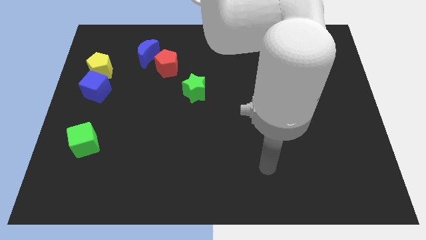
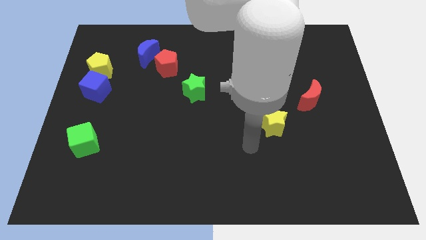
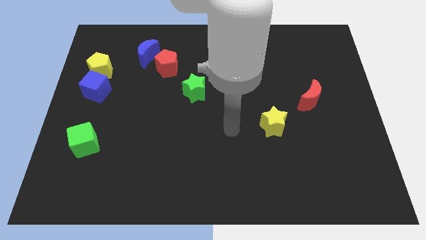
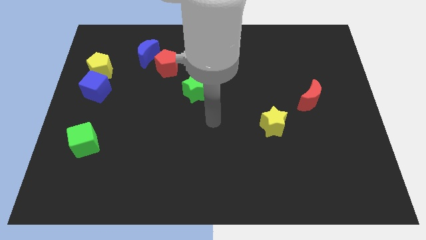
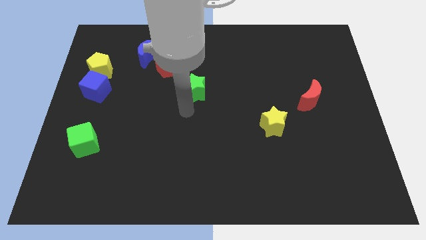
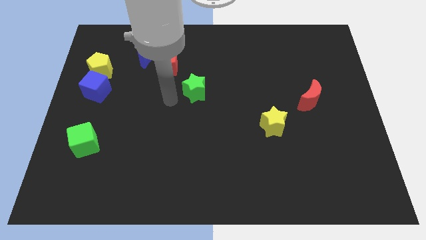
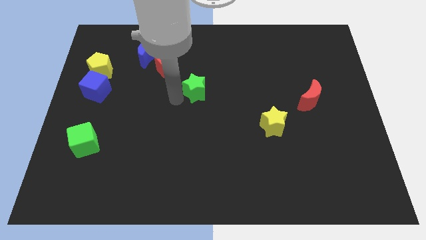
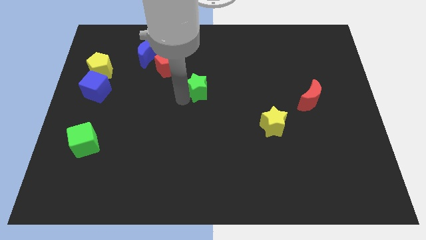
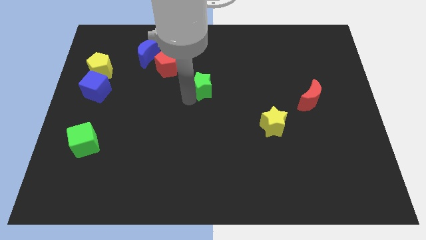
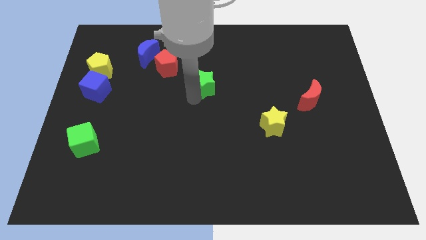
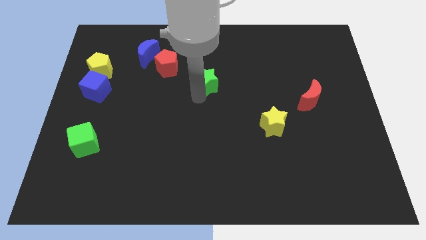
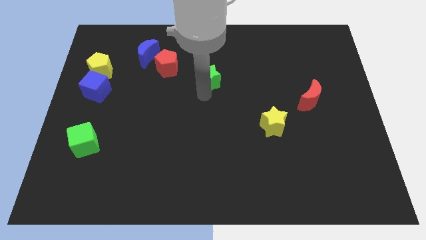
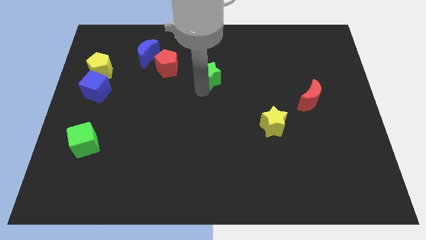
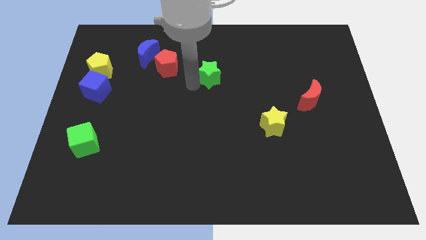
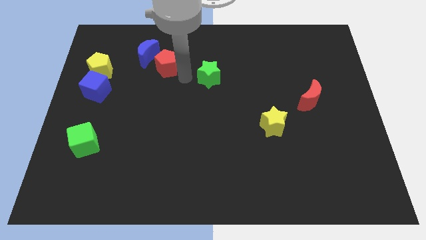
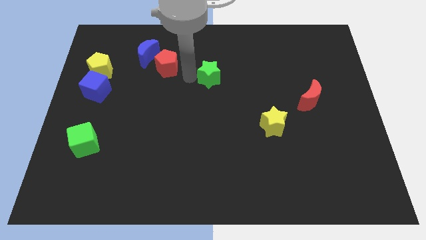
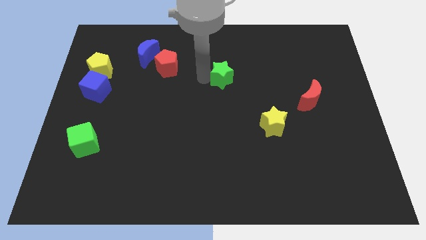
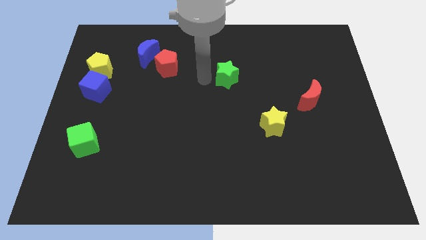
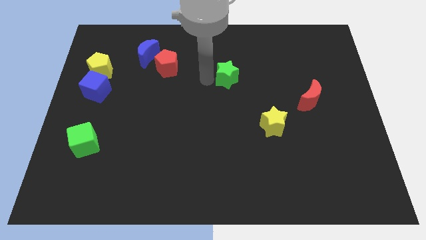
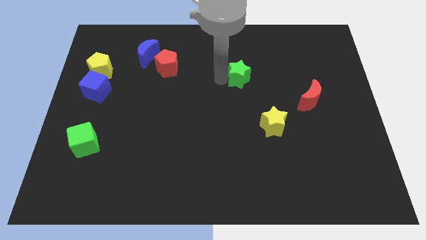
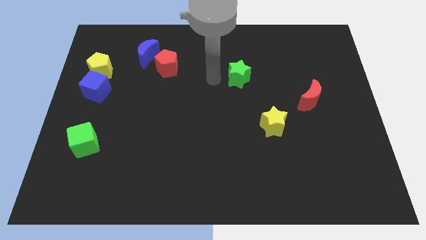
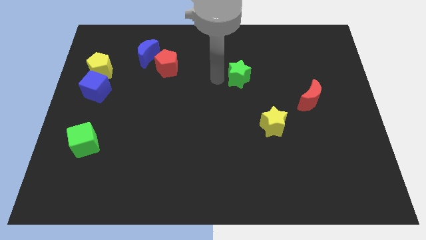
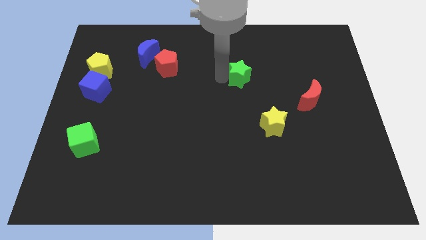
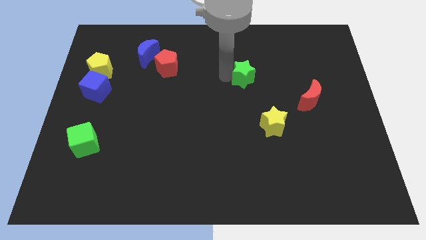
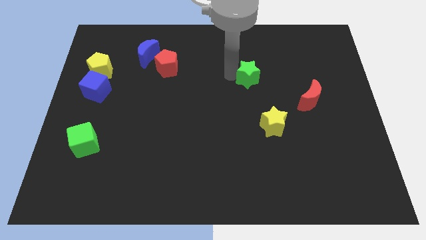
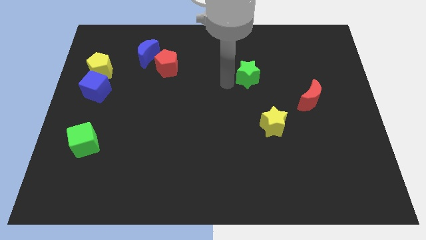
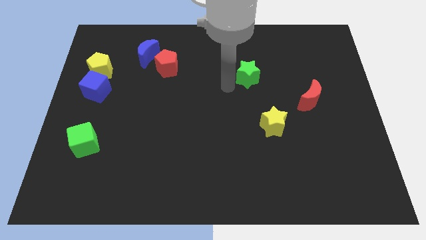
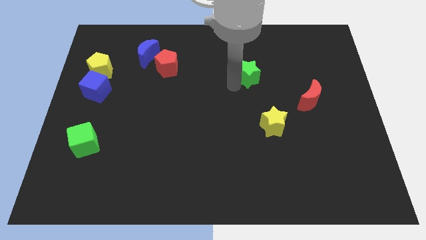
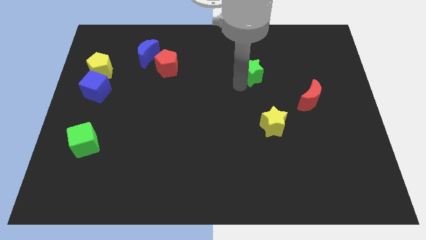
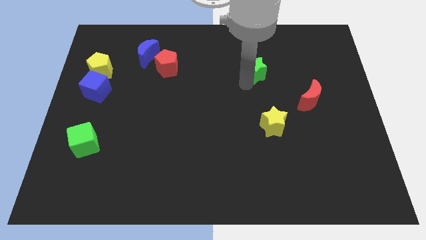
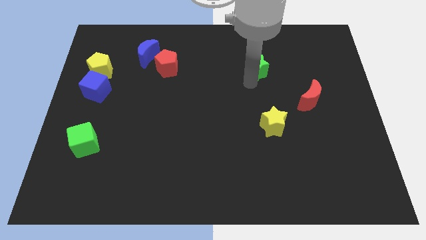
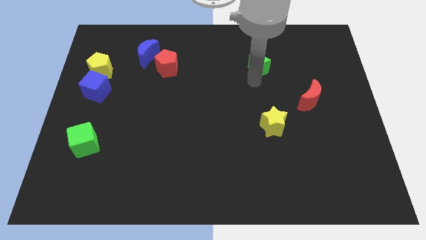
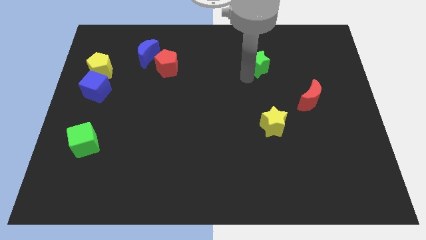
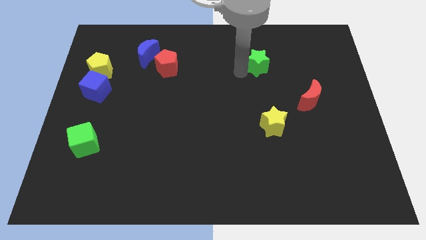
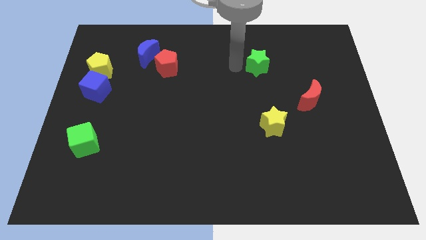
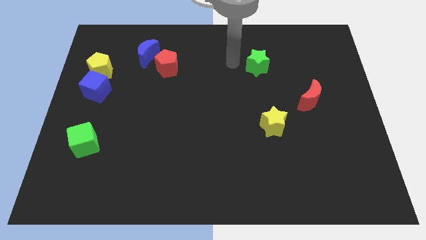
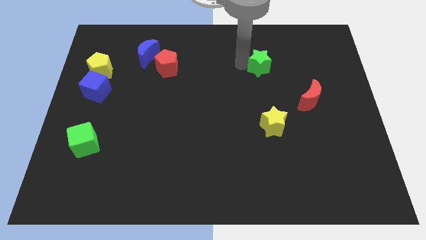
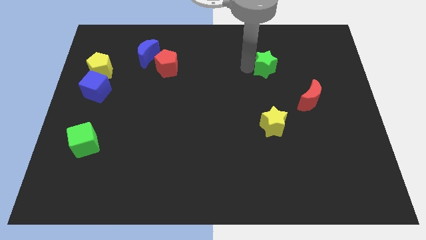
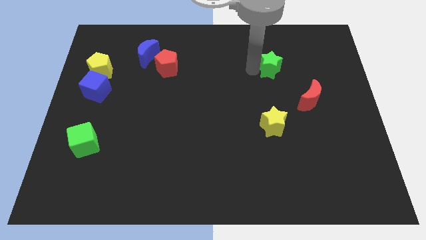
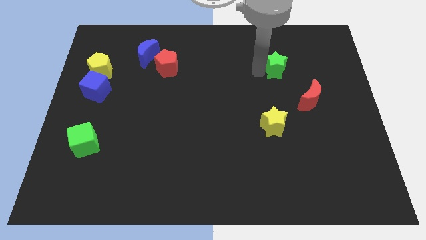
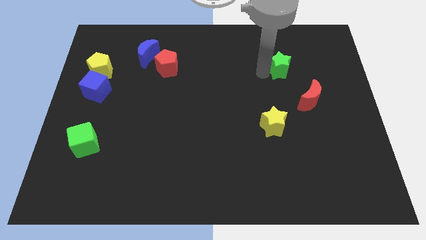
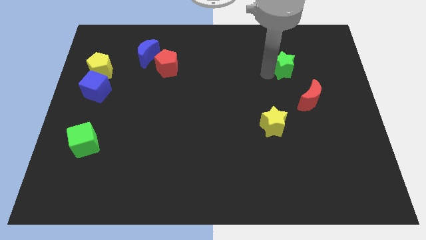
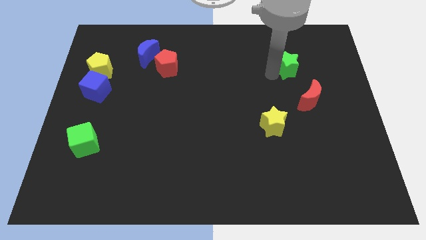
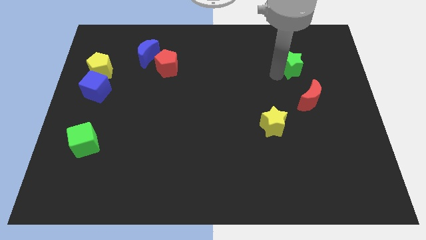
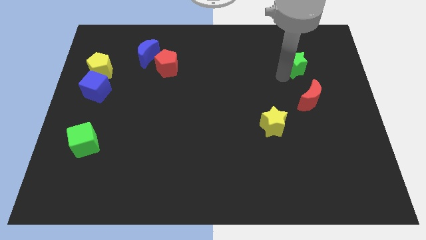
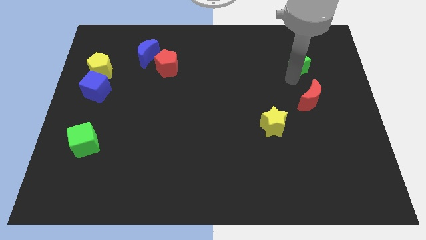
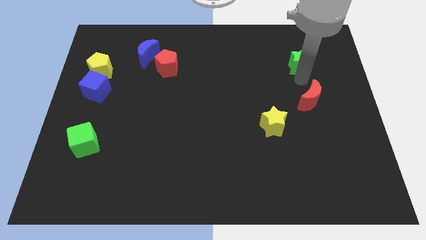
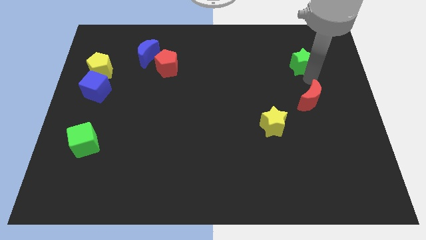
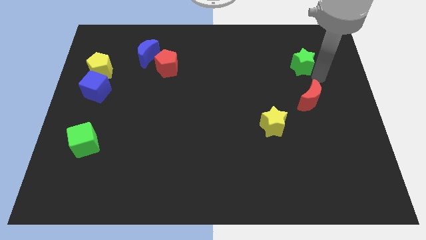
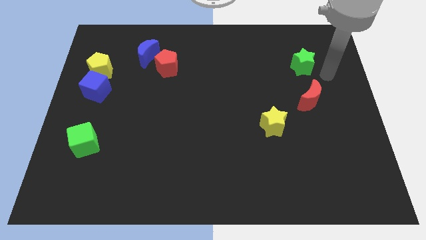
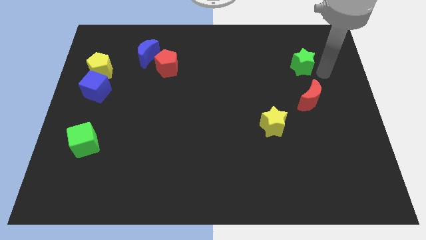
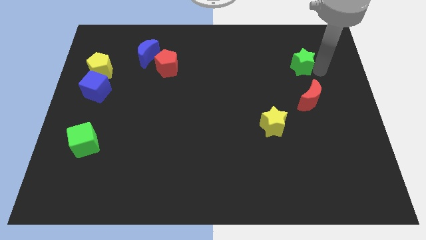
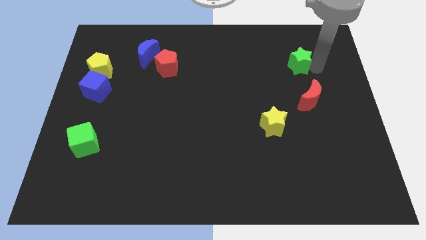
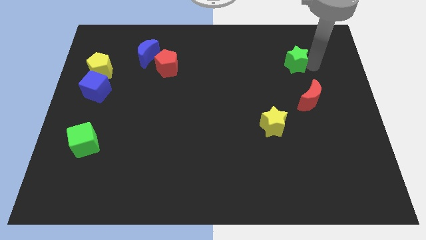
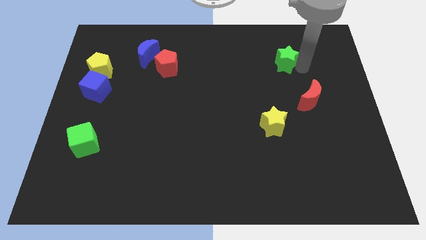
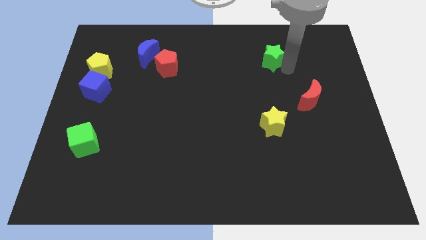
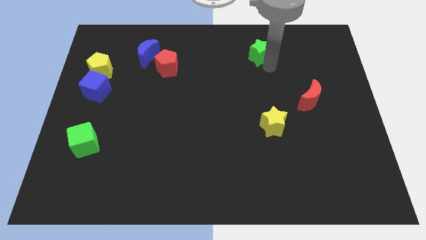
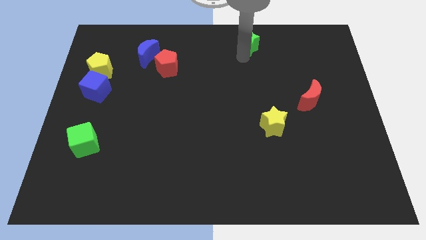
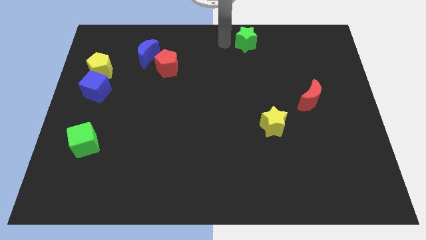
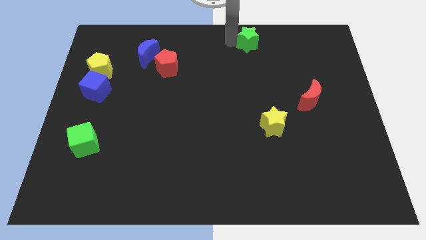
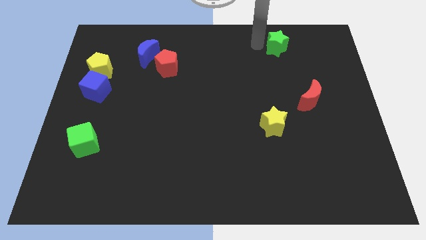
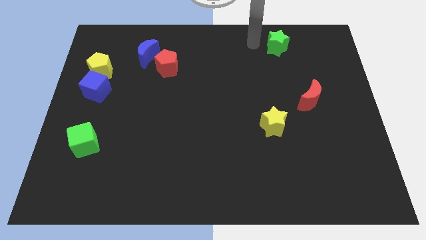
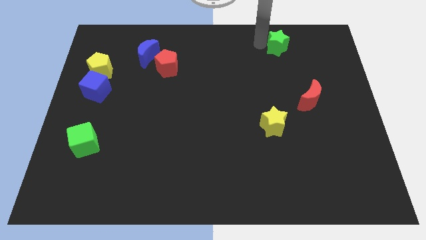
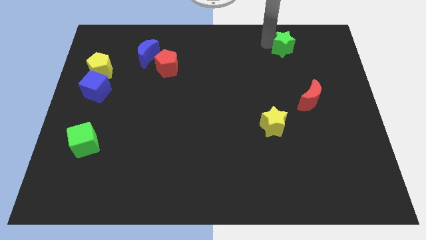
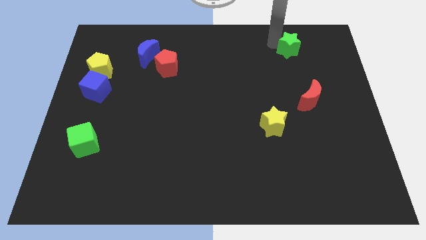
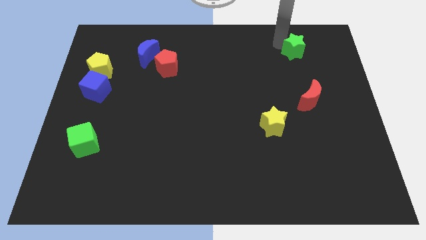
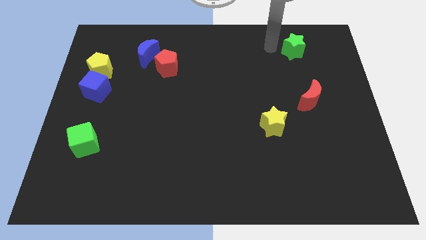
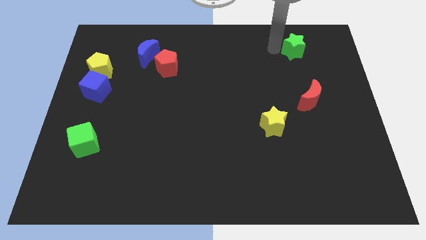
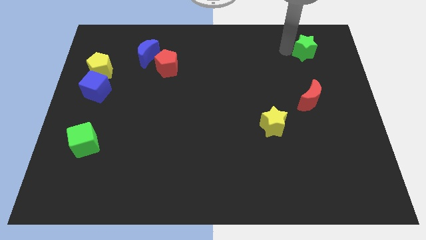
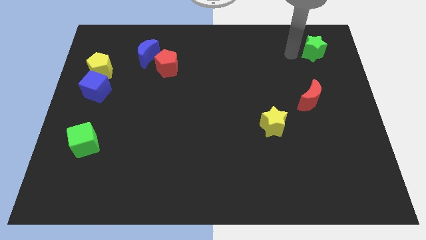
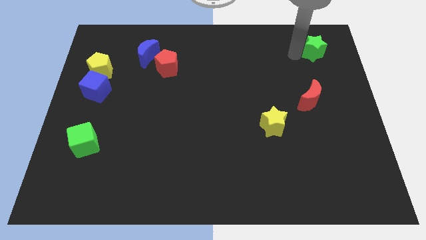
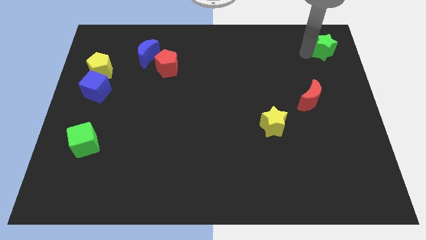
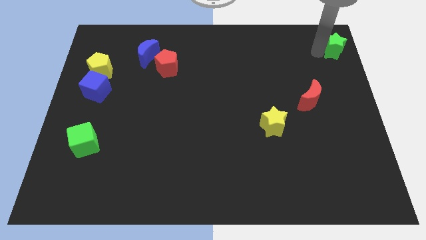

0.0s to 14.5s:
put the green star to the upper right corner

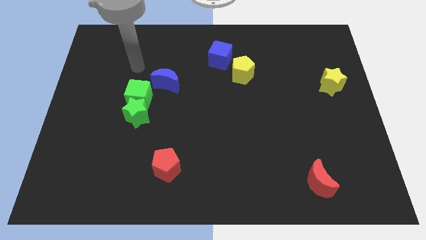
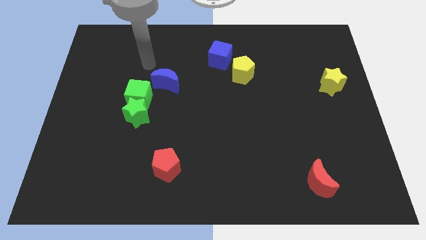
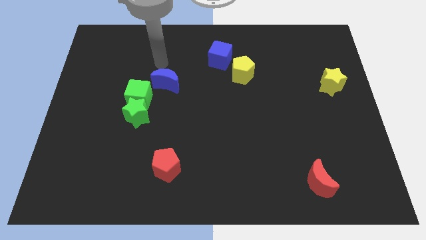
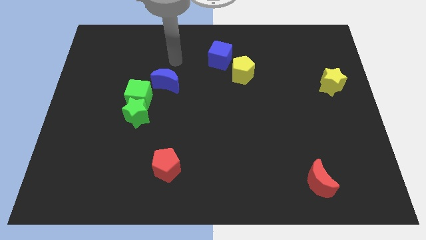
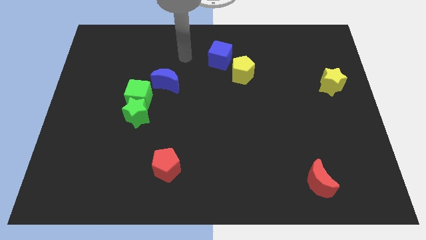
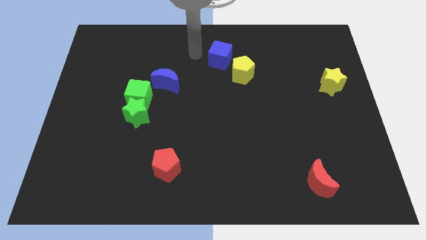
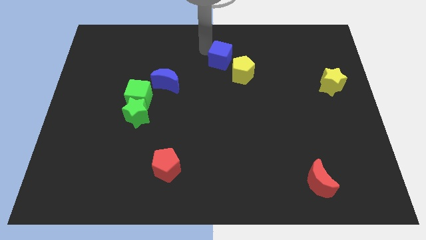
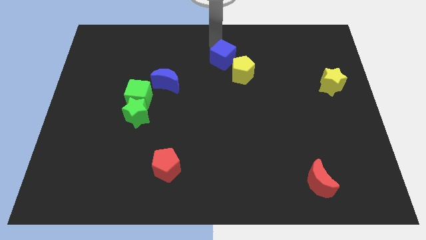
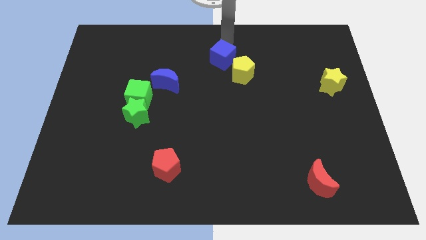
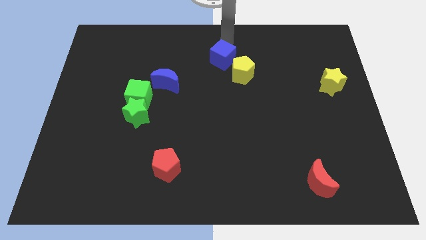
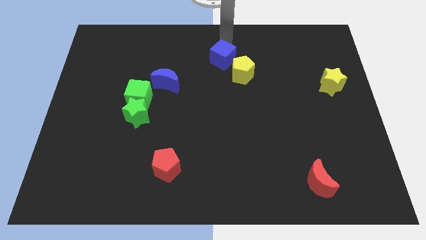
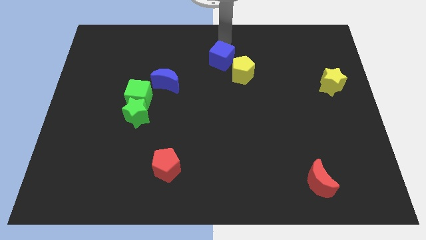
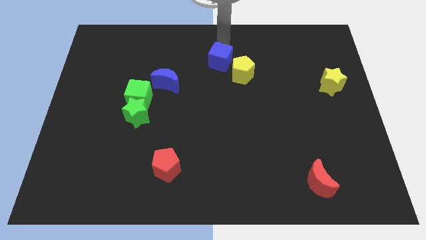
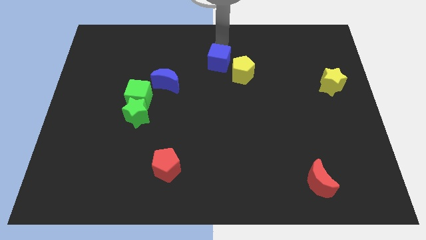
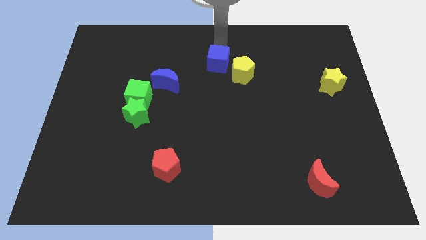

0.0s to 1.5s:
move the blue cube to the center

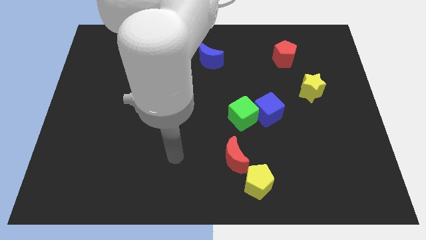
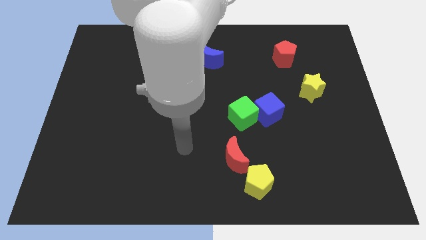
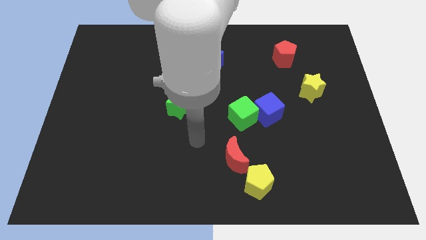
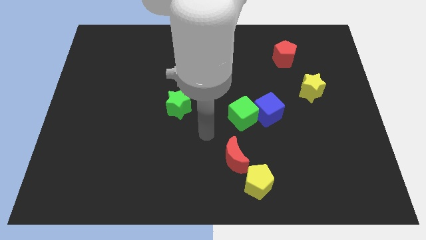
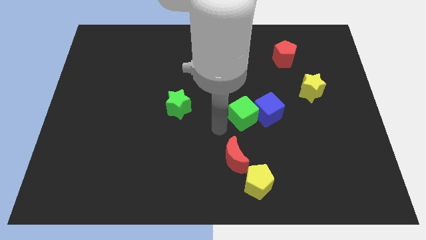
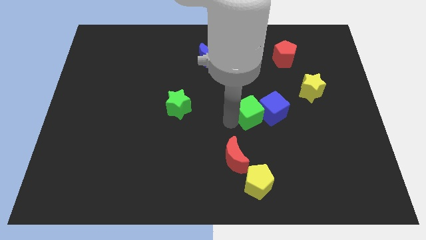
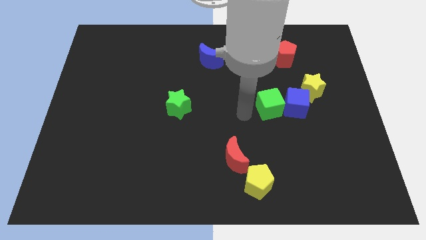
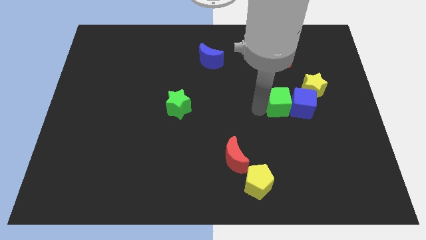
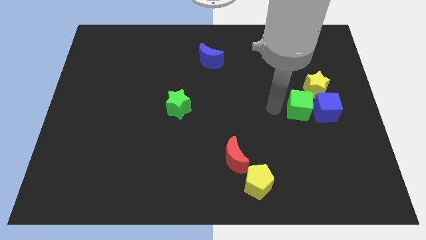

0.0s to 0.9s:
put the blue cube to the center right
